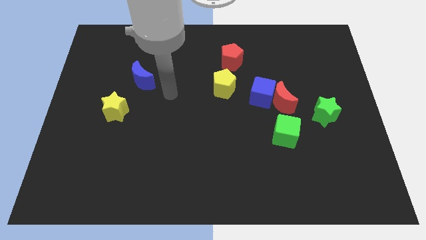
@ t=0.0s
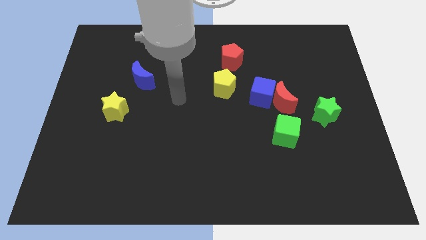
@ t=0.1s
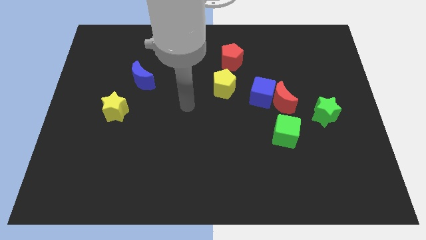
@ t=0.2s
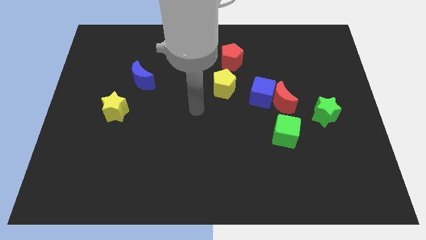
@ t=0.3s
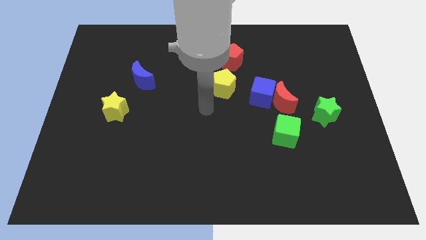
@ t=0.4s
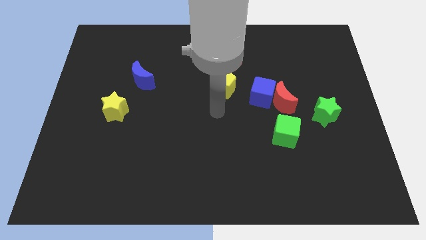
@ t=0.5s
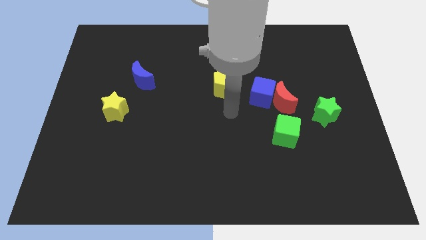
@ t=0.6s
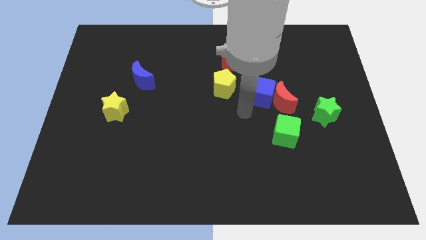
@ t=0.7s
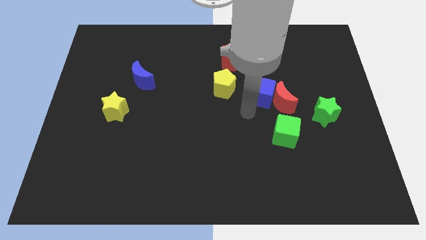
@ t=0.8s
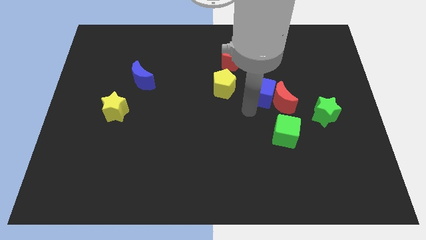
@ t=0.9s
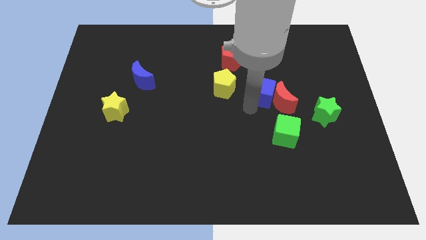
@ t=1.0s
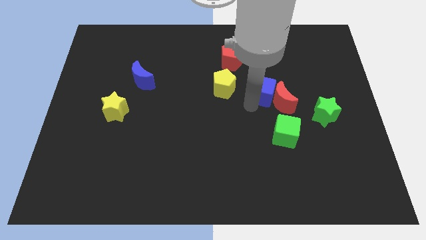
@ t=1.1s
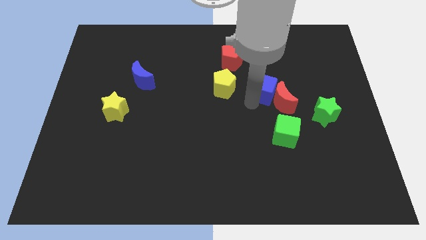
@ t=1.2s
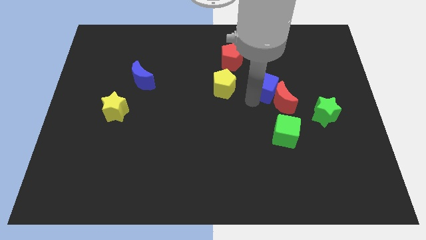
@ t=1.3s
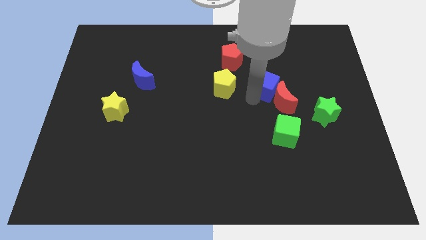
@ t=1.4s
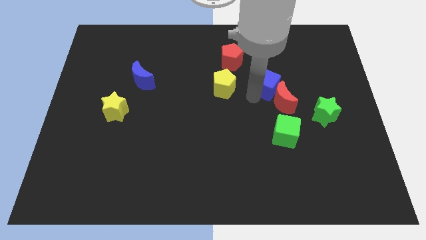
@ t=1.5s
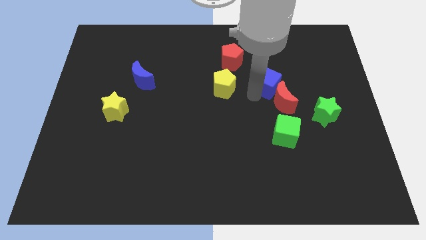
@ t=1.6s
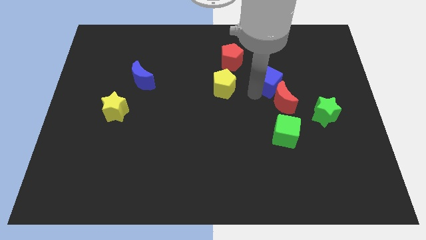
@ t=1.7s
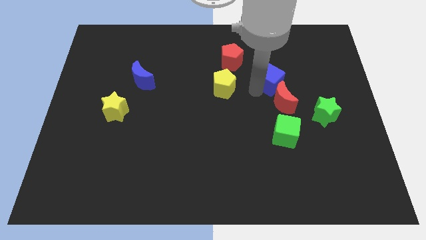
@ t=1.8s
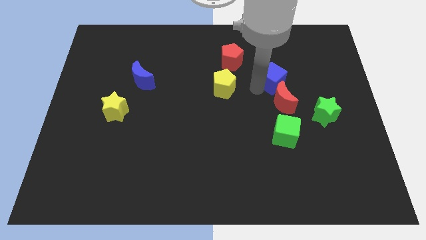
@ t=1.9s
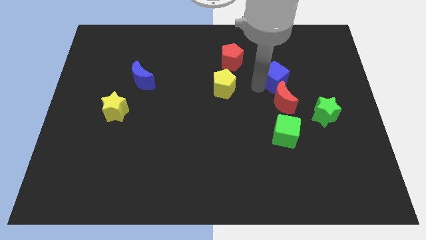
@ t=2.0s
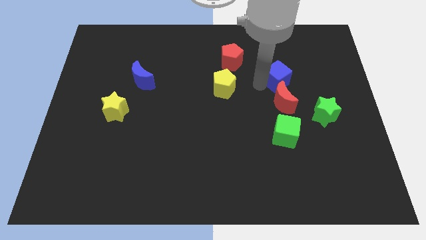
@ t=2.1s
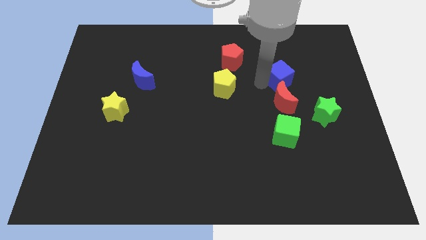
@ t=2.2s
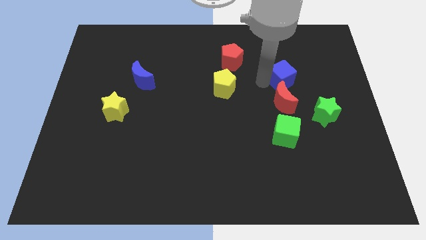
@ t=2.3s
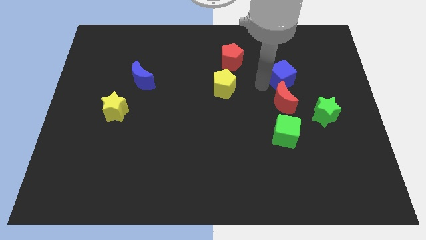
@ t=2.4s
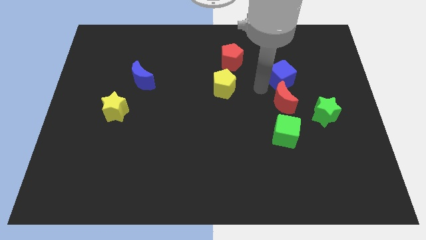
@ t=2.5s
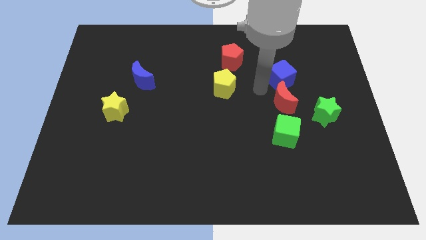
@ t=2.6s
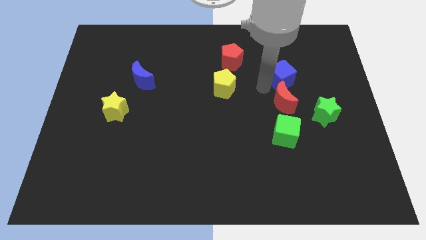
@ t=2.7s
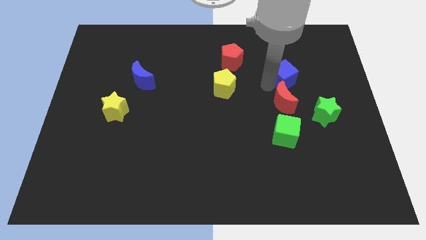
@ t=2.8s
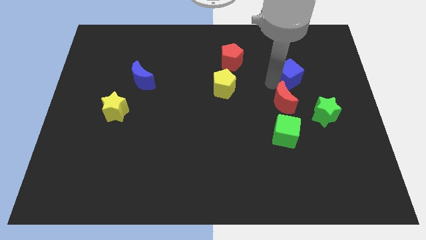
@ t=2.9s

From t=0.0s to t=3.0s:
move the blue cube away from the red moon and yellow pentagon

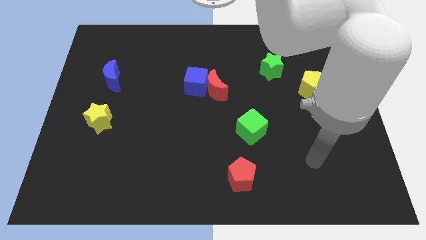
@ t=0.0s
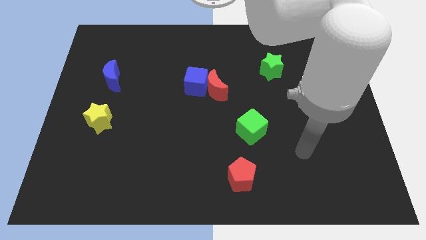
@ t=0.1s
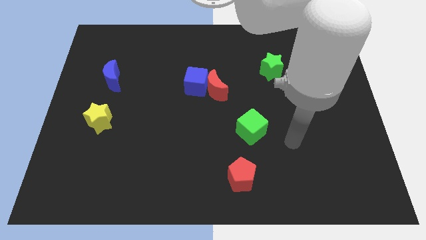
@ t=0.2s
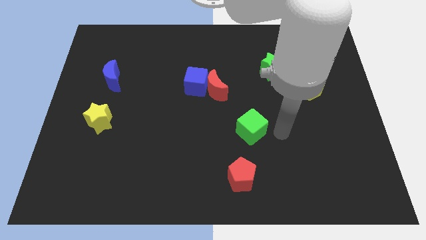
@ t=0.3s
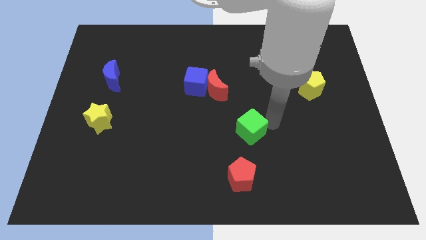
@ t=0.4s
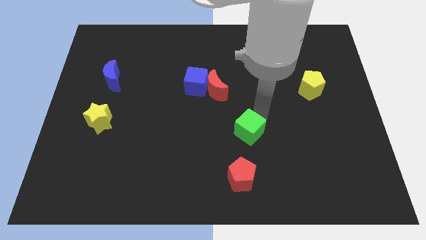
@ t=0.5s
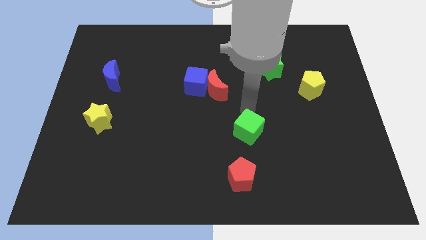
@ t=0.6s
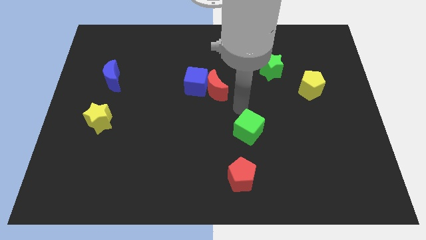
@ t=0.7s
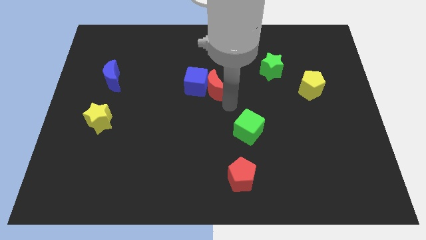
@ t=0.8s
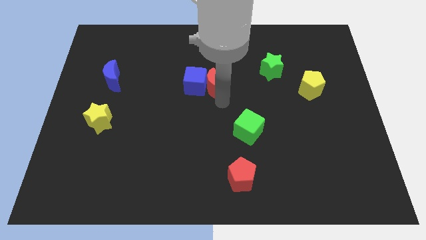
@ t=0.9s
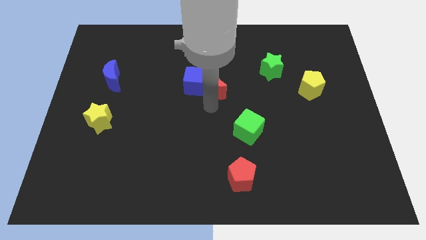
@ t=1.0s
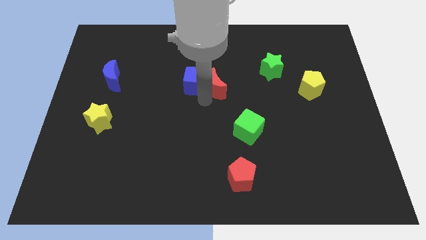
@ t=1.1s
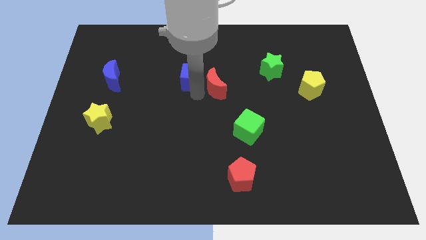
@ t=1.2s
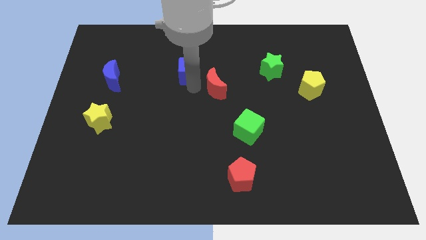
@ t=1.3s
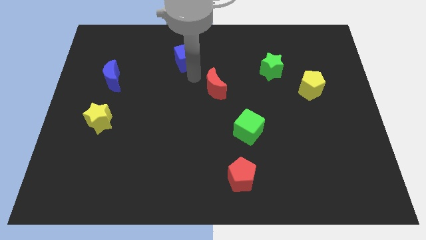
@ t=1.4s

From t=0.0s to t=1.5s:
move the red moon away from the blue cube

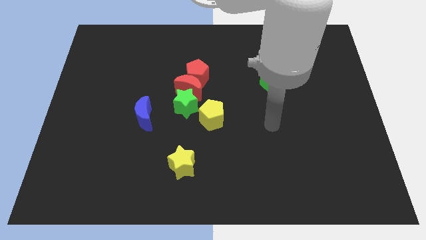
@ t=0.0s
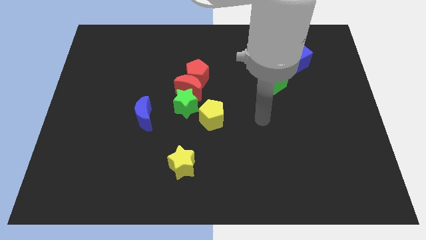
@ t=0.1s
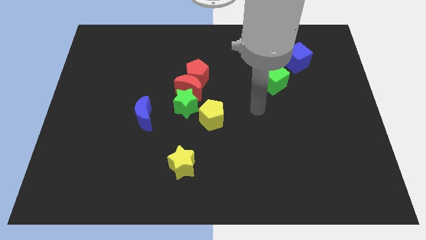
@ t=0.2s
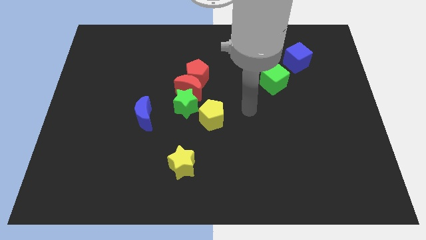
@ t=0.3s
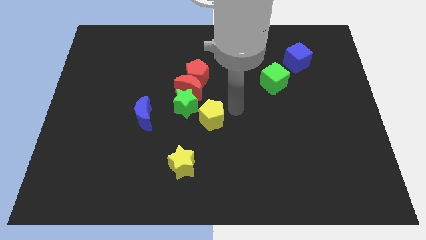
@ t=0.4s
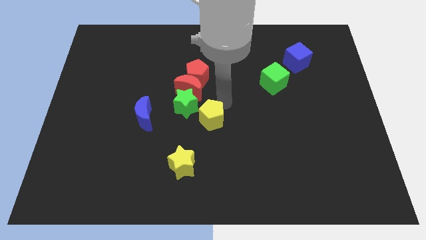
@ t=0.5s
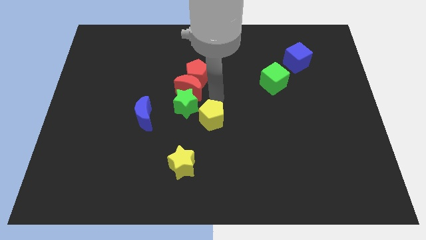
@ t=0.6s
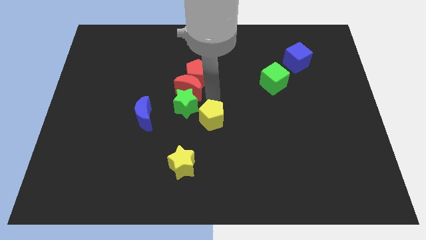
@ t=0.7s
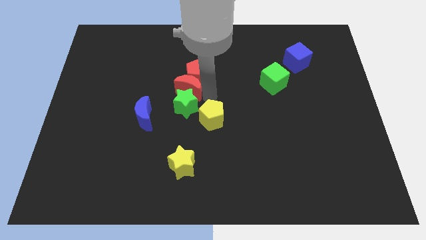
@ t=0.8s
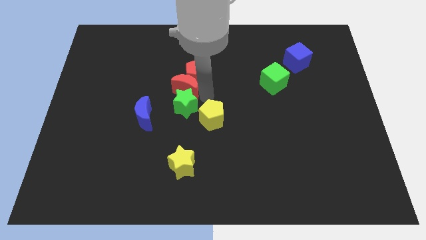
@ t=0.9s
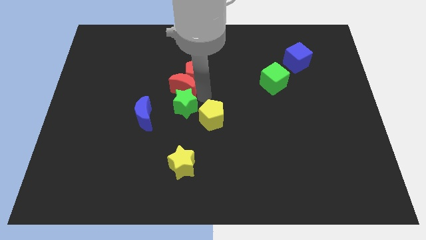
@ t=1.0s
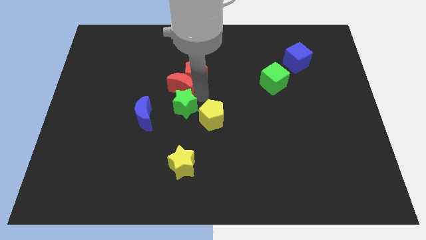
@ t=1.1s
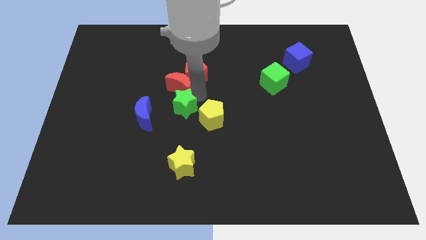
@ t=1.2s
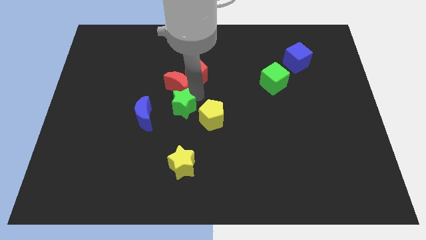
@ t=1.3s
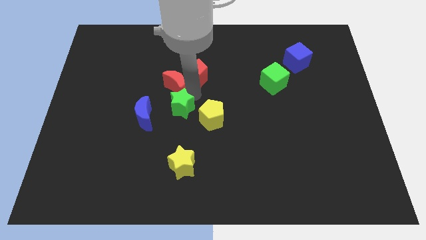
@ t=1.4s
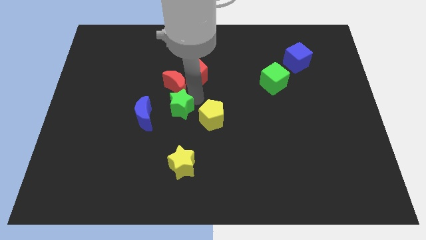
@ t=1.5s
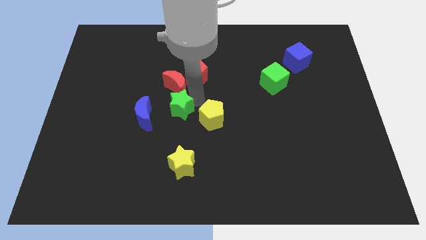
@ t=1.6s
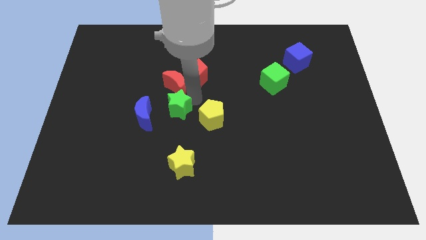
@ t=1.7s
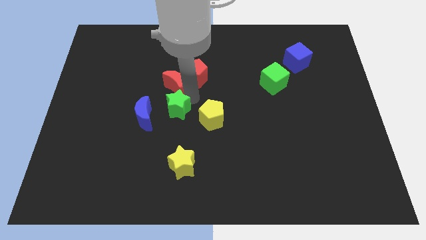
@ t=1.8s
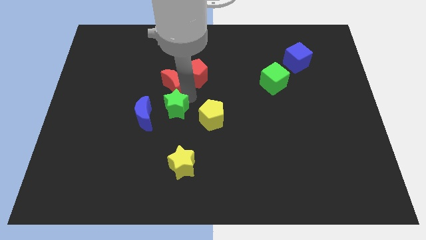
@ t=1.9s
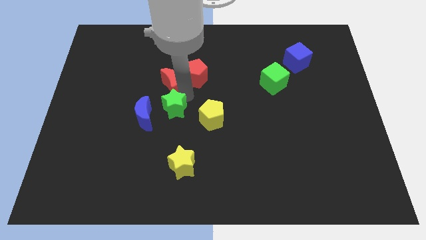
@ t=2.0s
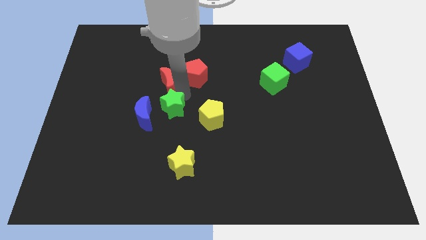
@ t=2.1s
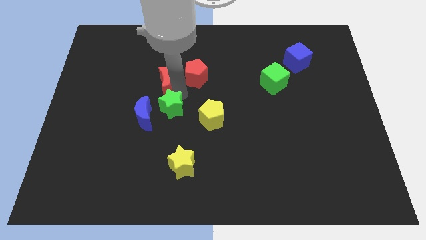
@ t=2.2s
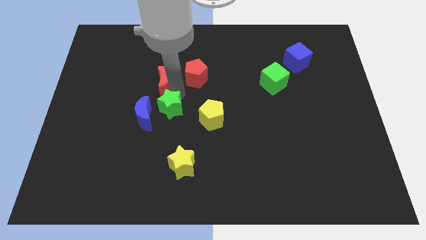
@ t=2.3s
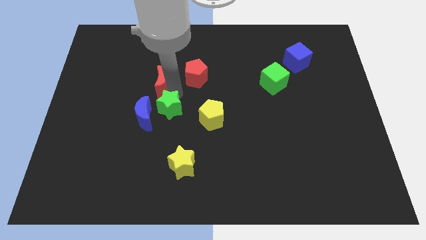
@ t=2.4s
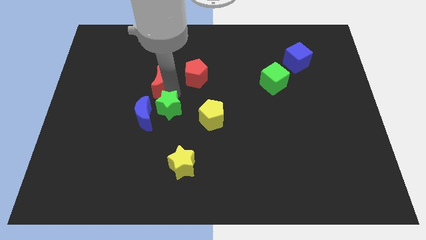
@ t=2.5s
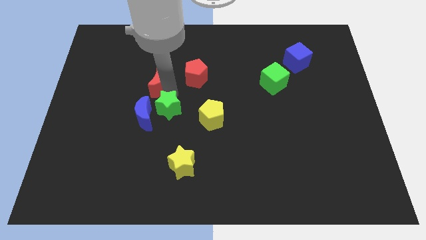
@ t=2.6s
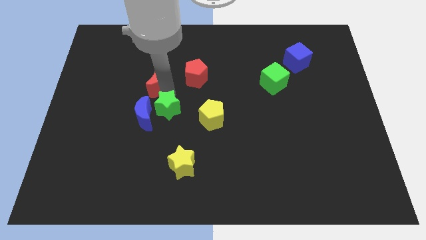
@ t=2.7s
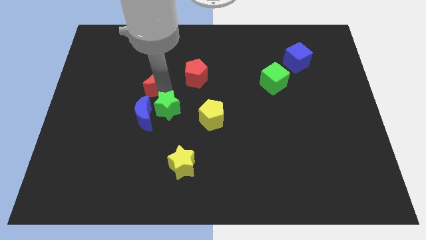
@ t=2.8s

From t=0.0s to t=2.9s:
pull the red moon apart from the red pentagon, green star, and yellow pentagon

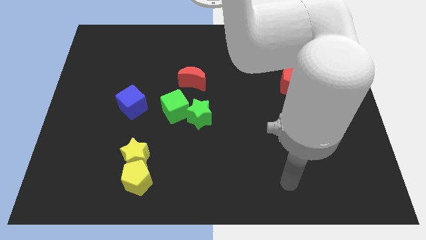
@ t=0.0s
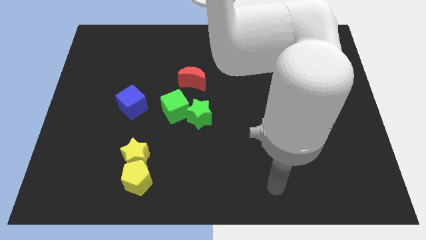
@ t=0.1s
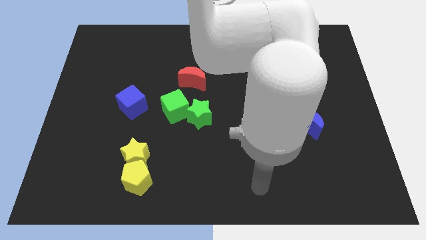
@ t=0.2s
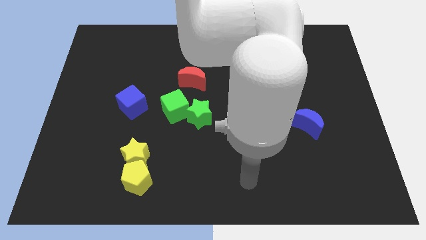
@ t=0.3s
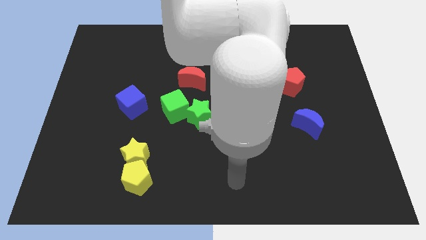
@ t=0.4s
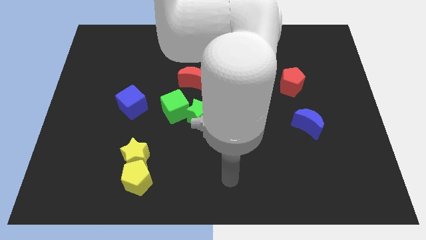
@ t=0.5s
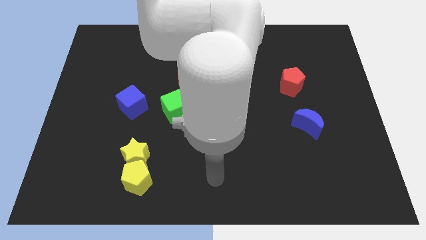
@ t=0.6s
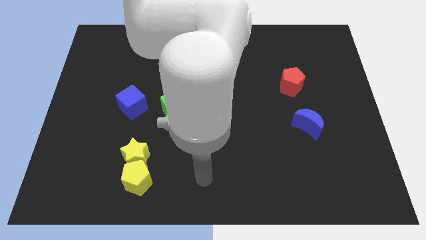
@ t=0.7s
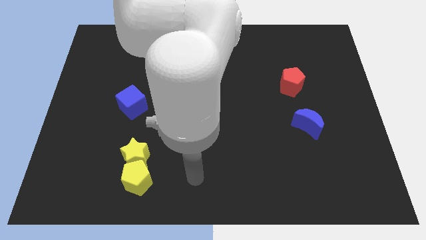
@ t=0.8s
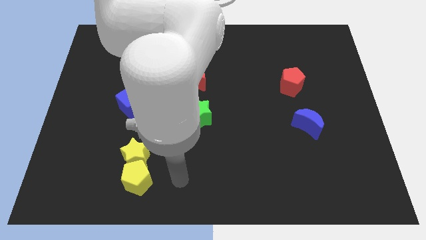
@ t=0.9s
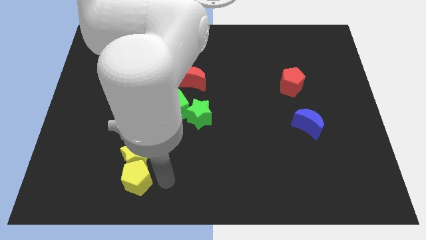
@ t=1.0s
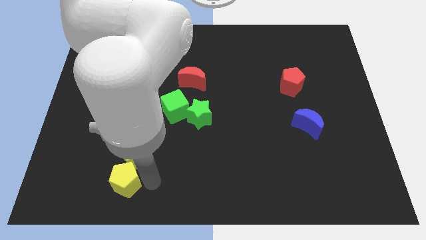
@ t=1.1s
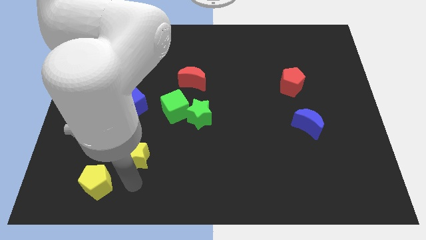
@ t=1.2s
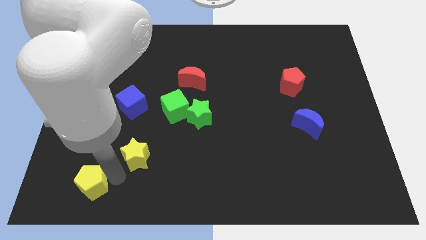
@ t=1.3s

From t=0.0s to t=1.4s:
separate the yellow star from the yellow pentagon

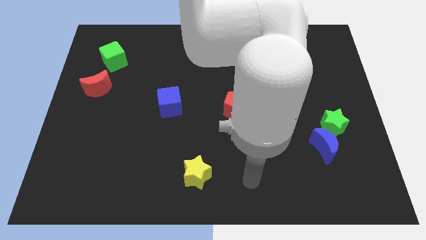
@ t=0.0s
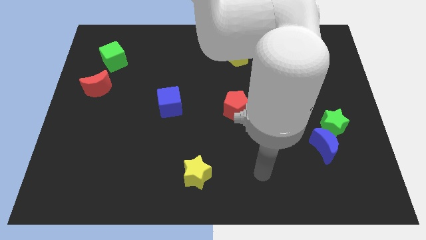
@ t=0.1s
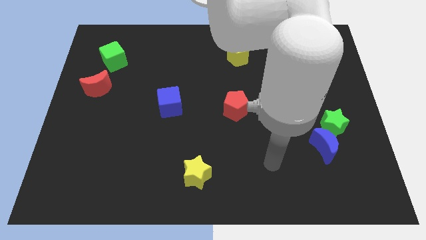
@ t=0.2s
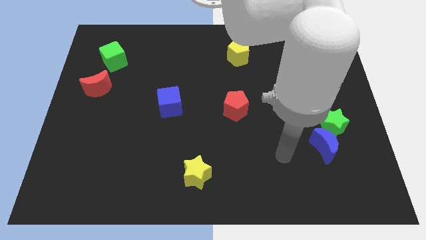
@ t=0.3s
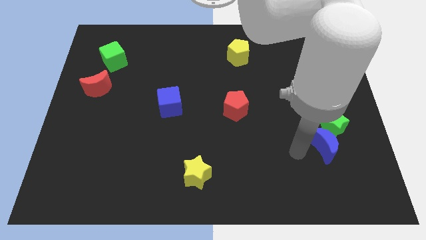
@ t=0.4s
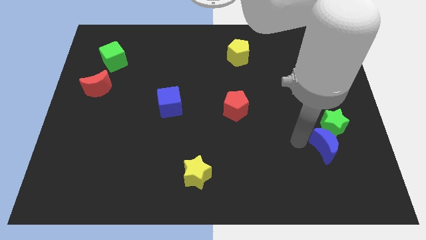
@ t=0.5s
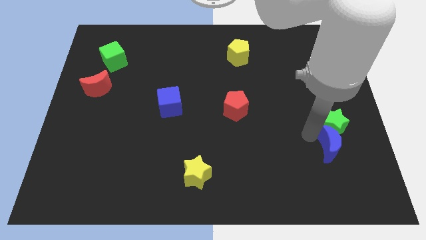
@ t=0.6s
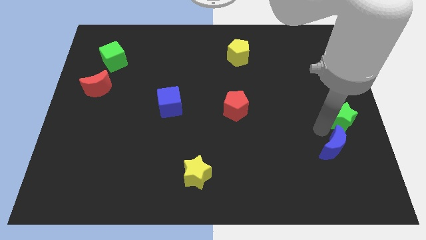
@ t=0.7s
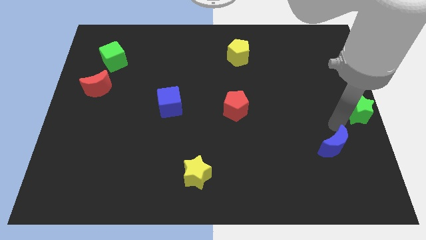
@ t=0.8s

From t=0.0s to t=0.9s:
pull the blue moon apart from the green star
